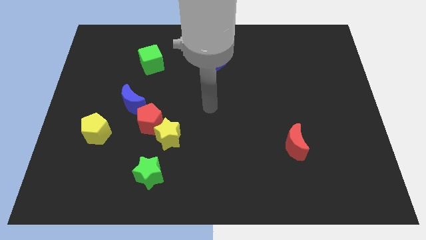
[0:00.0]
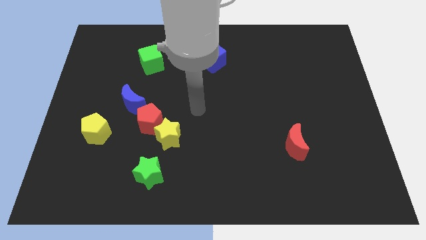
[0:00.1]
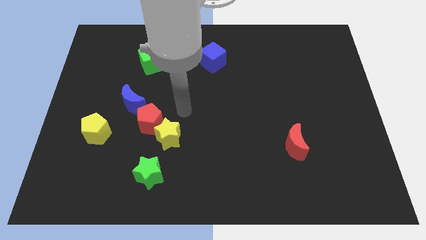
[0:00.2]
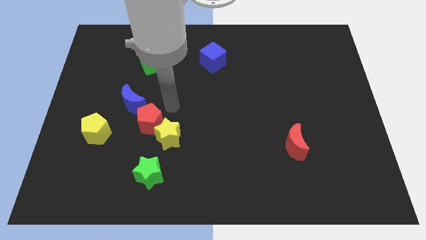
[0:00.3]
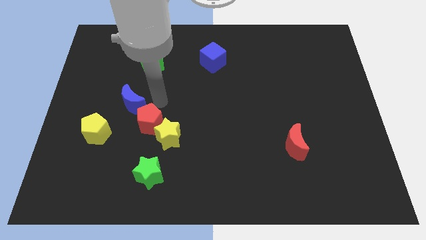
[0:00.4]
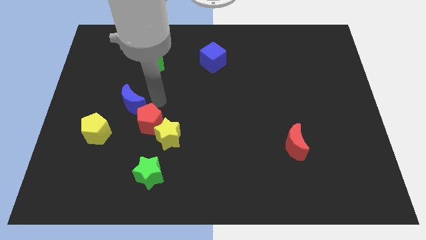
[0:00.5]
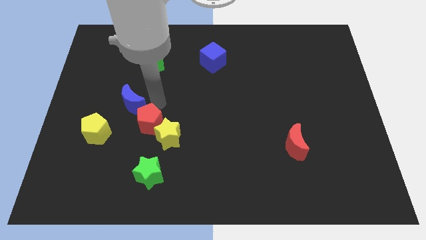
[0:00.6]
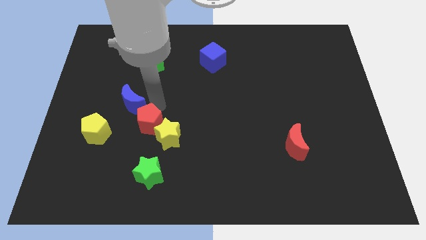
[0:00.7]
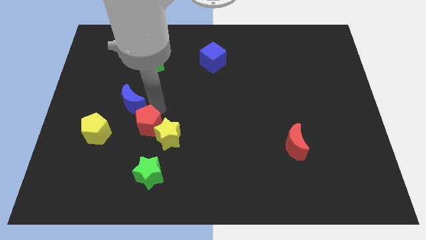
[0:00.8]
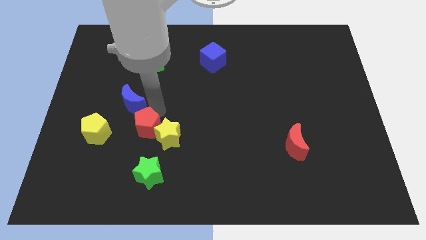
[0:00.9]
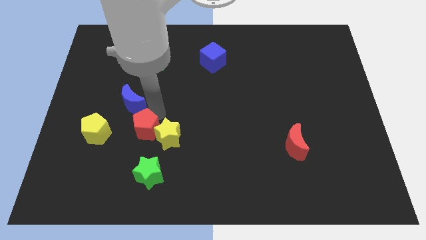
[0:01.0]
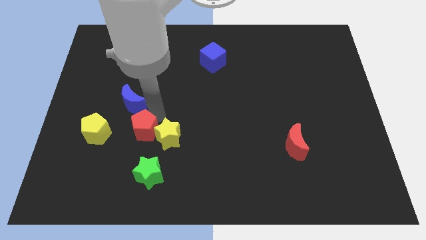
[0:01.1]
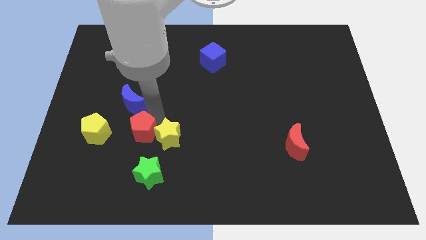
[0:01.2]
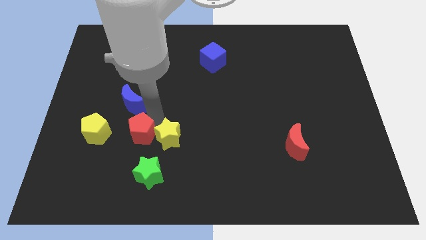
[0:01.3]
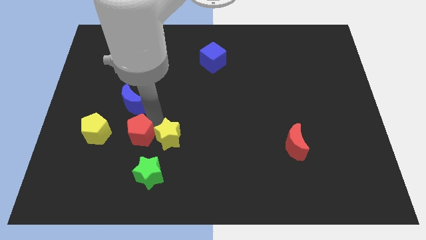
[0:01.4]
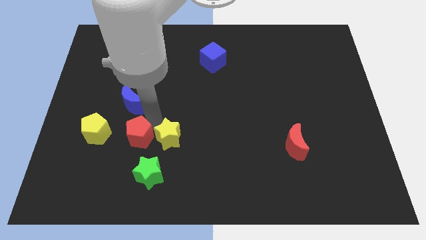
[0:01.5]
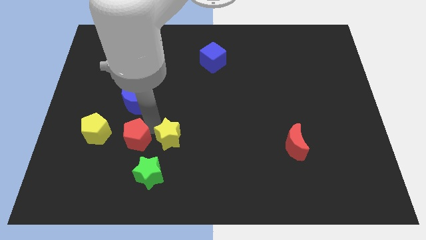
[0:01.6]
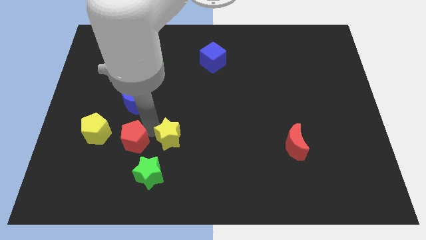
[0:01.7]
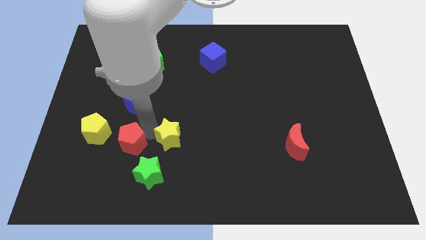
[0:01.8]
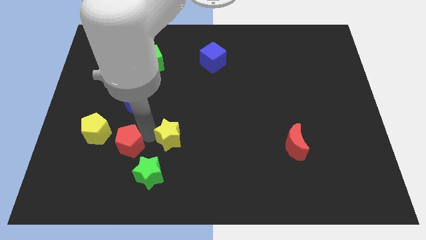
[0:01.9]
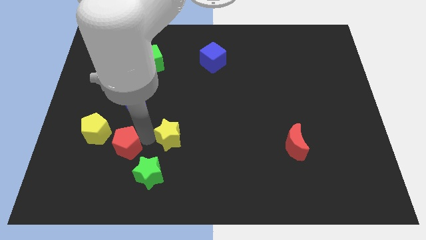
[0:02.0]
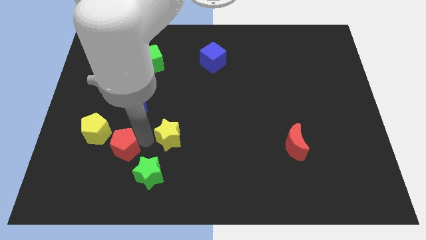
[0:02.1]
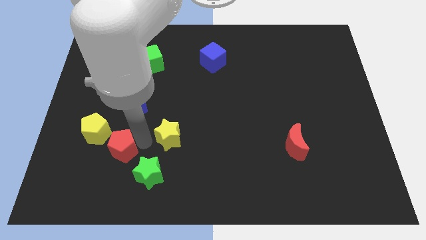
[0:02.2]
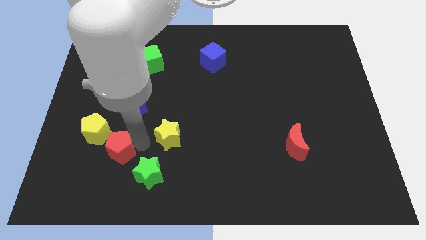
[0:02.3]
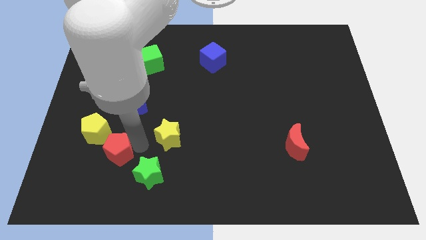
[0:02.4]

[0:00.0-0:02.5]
separate the red pentagon from the yellow star and blue moon

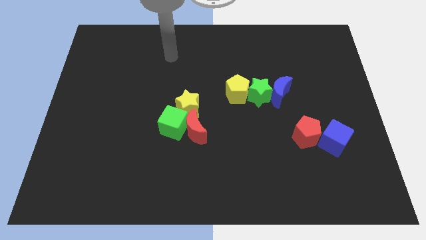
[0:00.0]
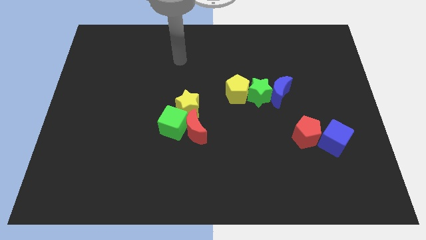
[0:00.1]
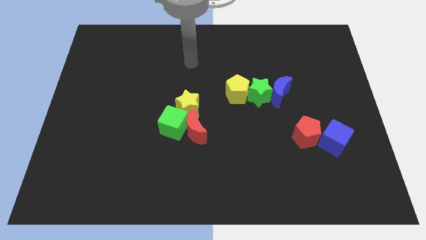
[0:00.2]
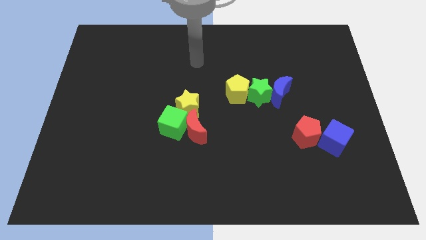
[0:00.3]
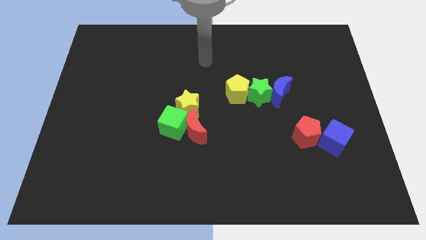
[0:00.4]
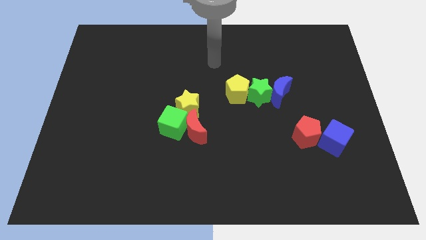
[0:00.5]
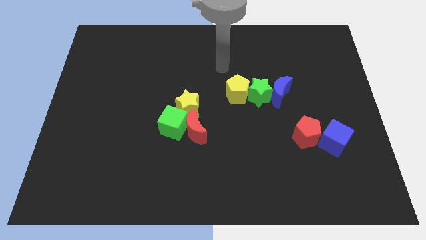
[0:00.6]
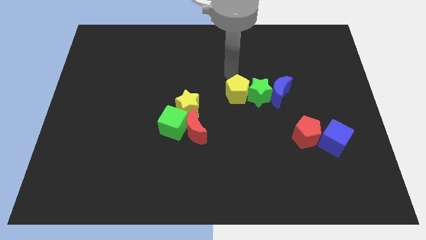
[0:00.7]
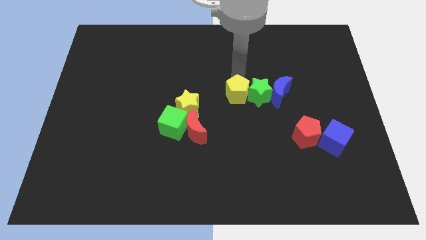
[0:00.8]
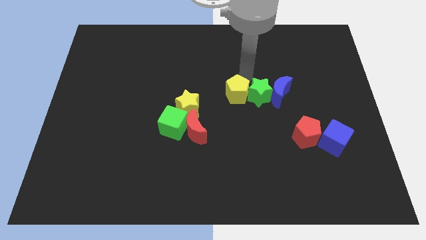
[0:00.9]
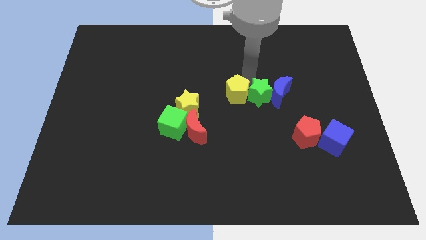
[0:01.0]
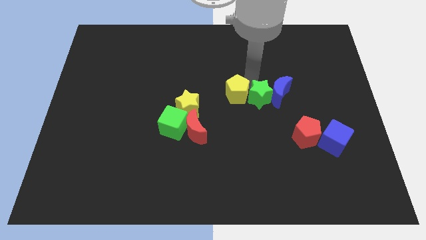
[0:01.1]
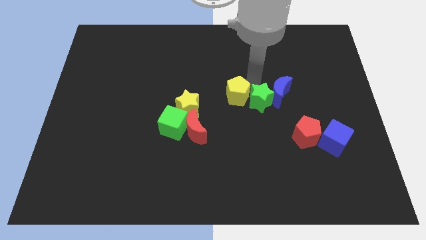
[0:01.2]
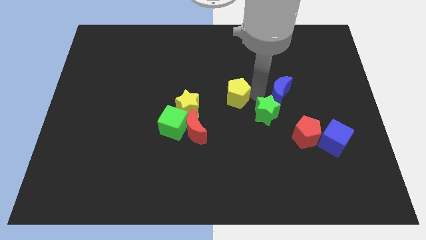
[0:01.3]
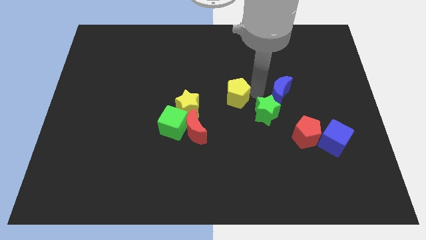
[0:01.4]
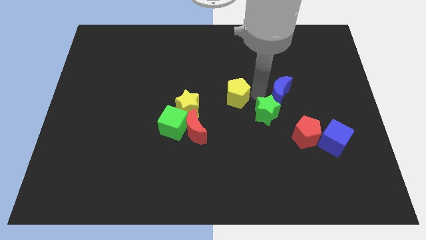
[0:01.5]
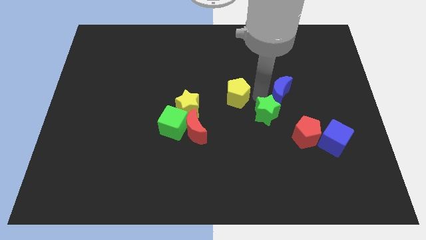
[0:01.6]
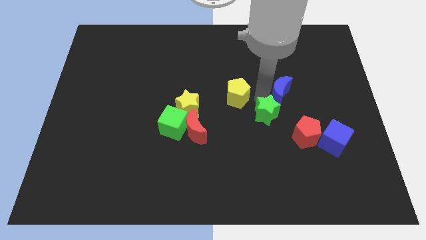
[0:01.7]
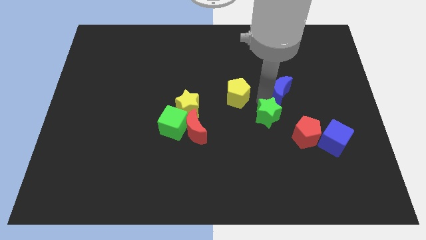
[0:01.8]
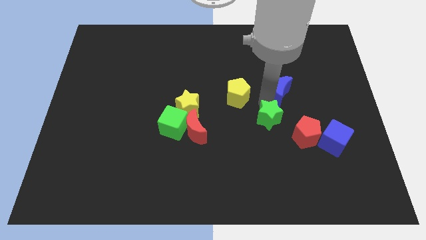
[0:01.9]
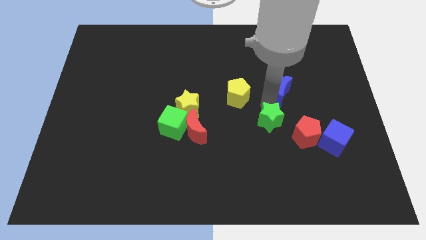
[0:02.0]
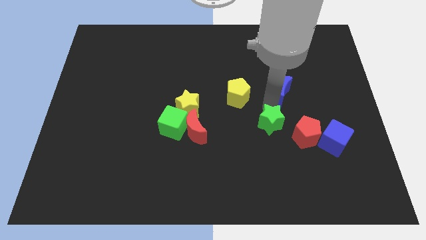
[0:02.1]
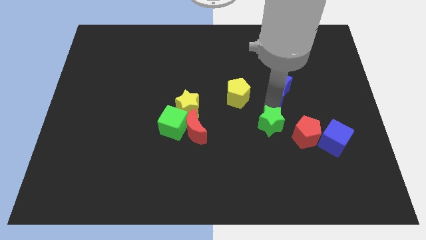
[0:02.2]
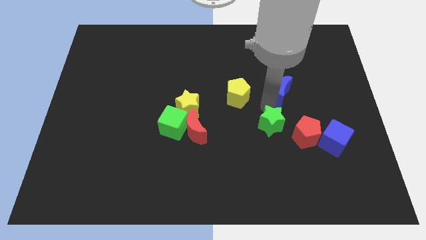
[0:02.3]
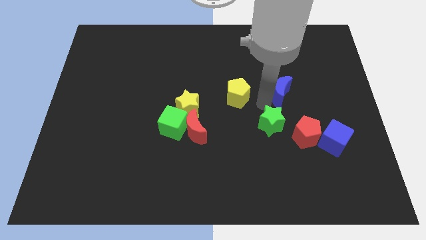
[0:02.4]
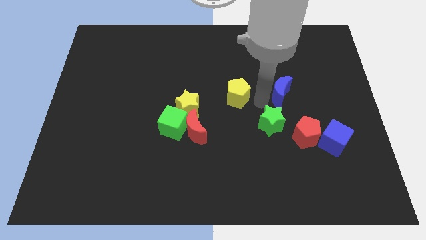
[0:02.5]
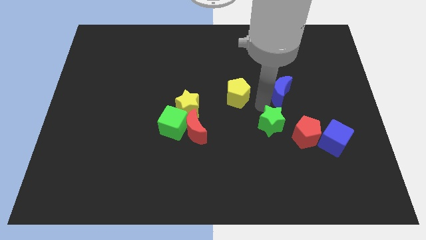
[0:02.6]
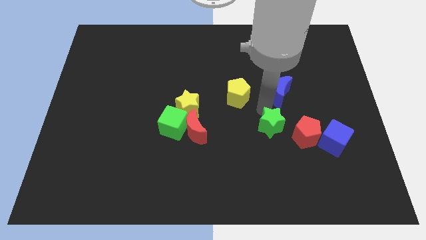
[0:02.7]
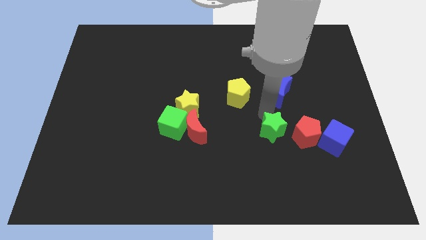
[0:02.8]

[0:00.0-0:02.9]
pull the green star apart from the blue moon and yellow pentagon

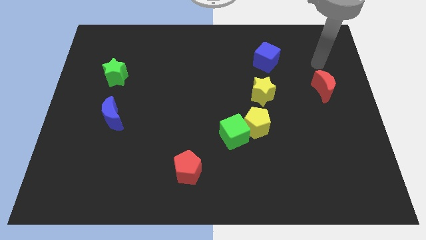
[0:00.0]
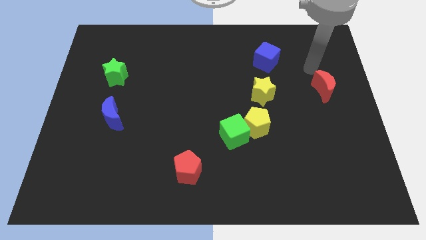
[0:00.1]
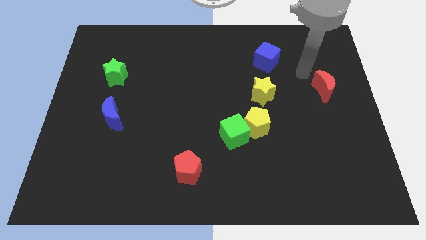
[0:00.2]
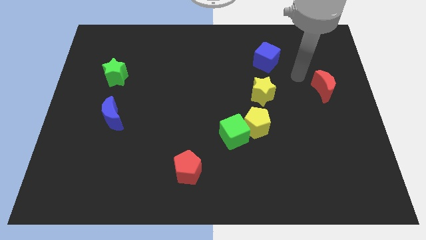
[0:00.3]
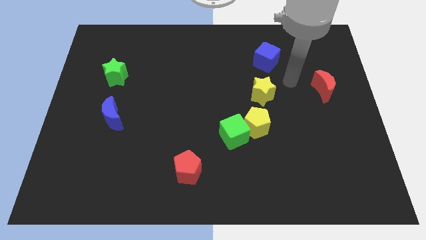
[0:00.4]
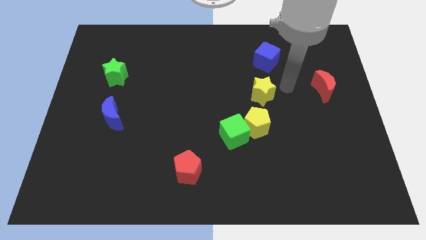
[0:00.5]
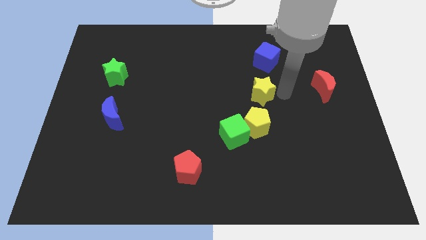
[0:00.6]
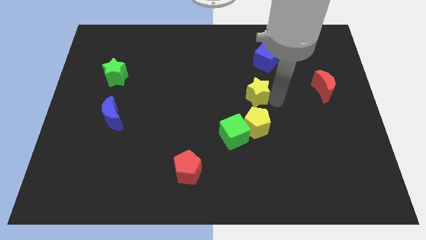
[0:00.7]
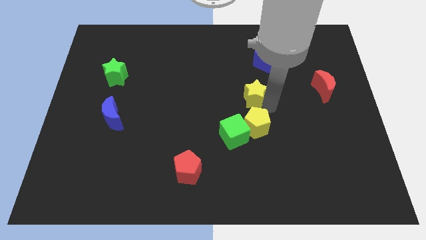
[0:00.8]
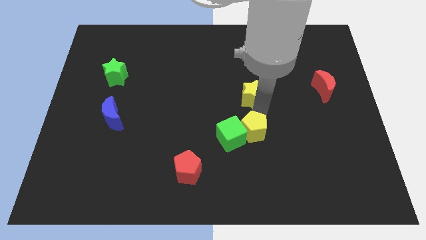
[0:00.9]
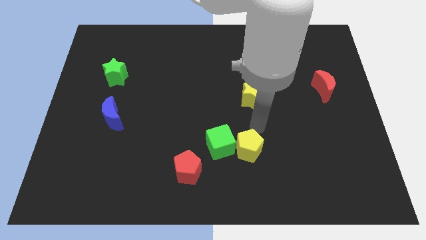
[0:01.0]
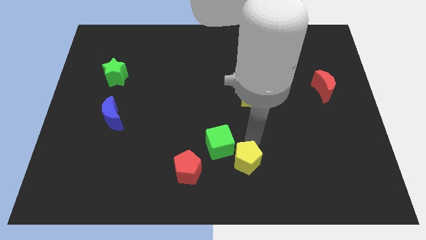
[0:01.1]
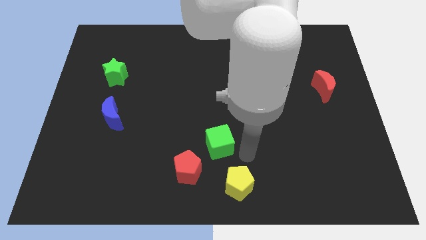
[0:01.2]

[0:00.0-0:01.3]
pull the green cube apart from the yellow pentagon

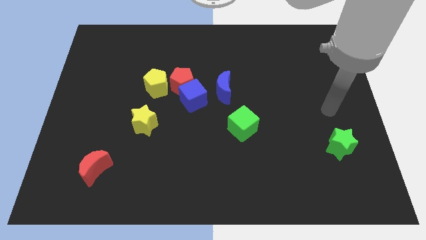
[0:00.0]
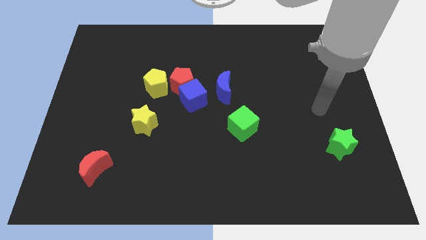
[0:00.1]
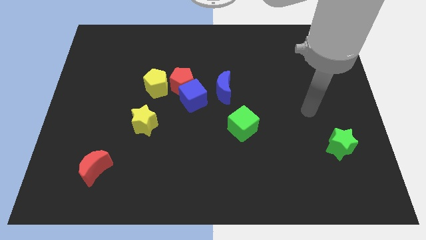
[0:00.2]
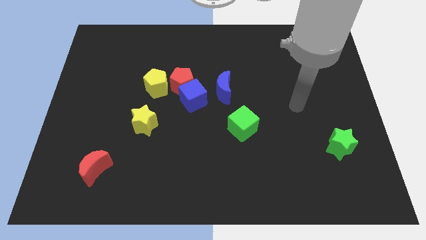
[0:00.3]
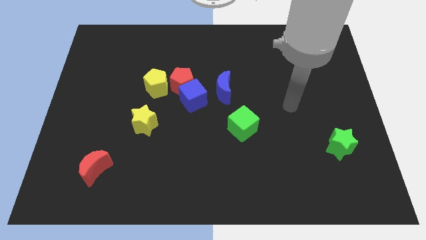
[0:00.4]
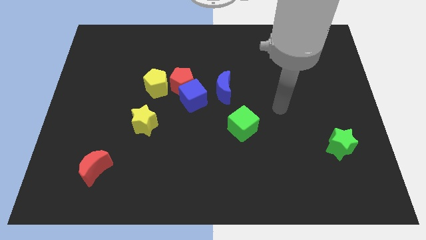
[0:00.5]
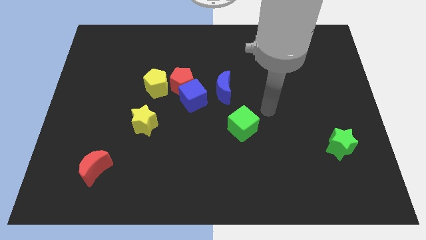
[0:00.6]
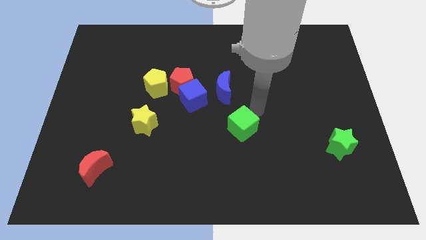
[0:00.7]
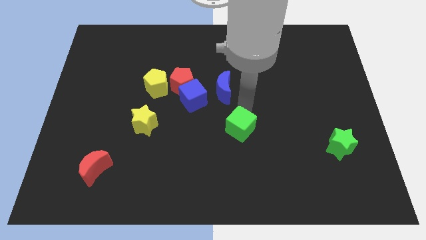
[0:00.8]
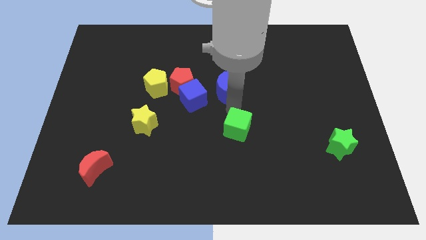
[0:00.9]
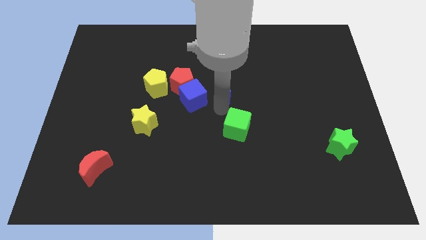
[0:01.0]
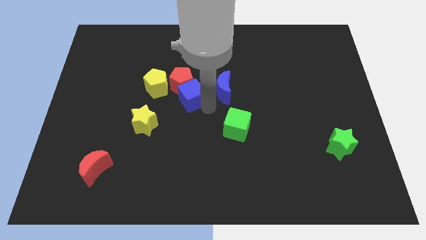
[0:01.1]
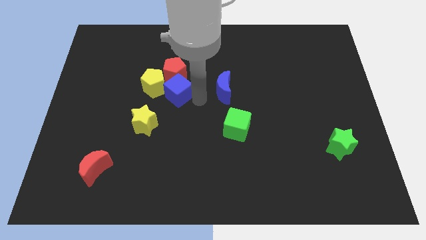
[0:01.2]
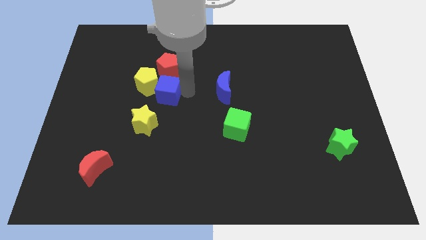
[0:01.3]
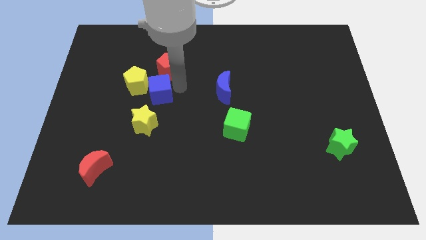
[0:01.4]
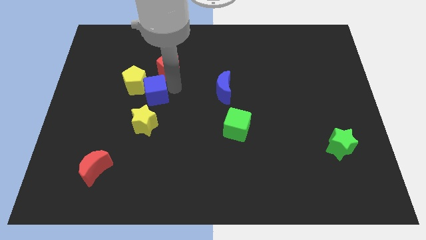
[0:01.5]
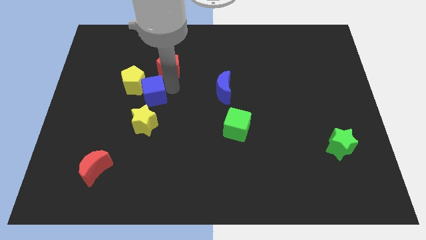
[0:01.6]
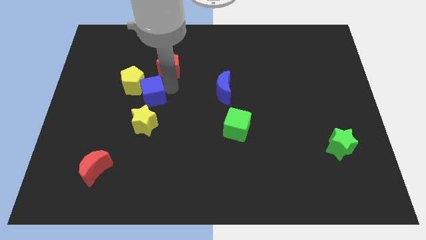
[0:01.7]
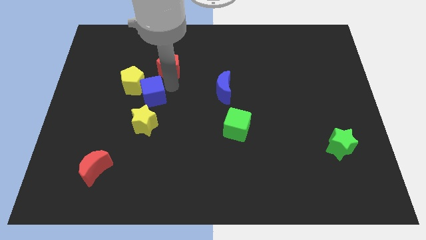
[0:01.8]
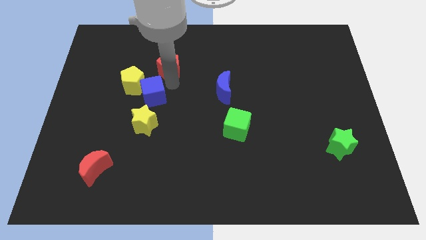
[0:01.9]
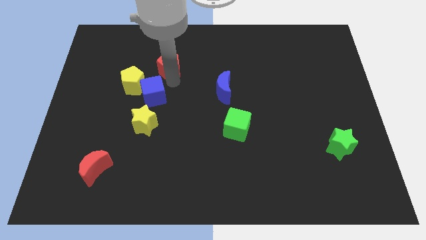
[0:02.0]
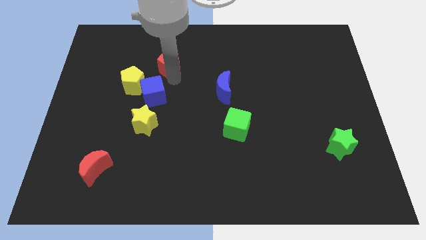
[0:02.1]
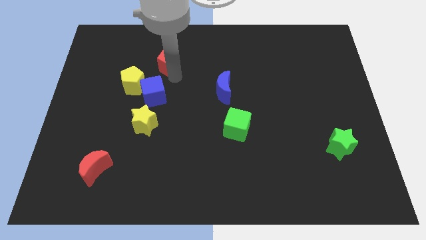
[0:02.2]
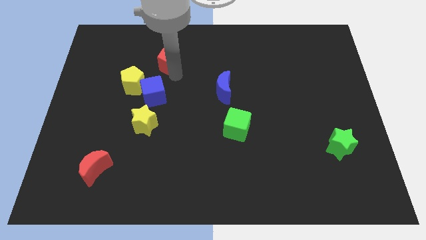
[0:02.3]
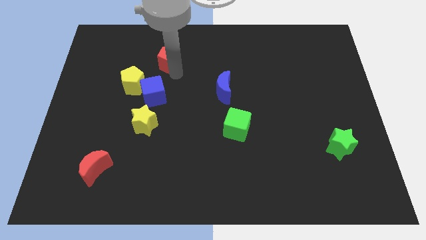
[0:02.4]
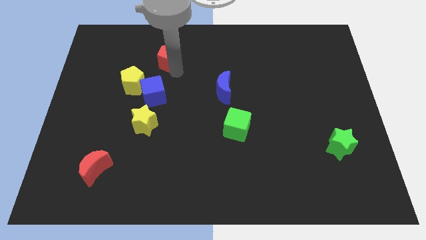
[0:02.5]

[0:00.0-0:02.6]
move the red pentagon away from the blue cube, yellow pentagon, and blue moon
